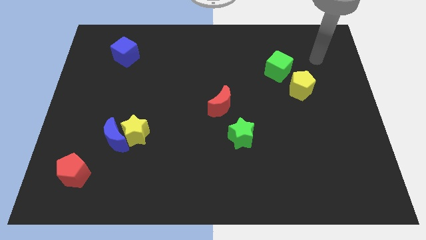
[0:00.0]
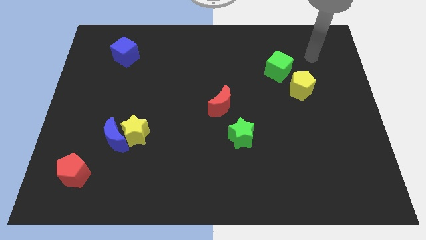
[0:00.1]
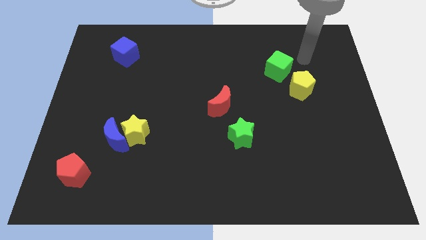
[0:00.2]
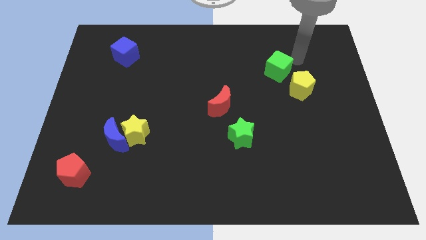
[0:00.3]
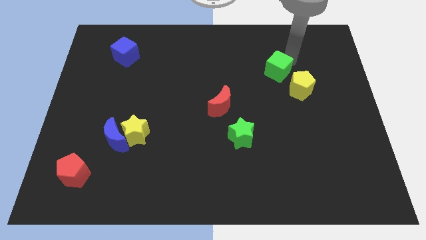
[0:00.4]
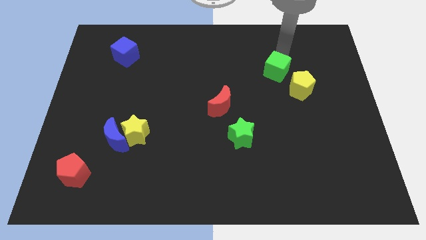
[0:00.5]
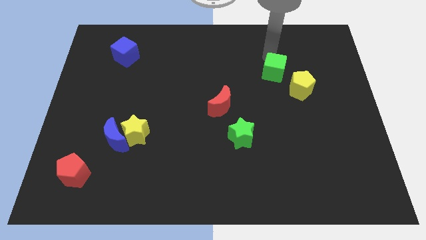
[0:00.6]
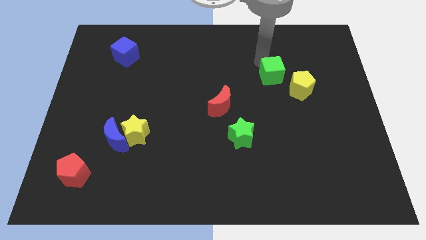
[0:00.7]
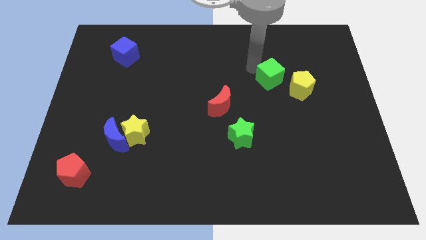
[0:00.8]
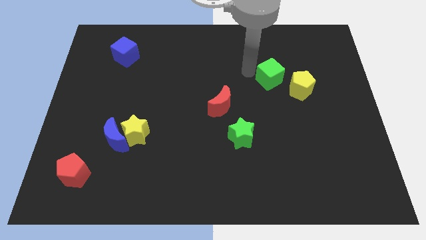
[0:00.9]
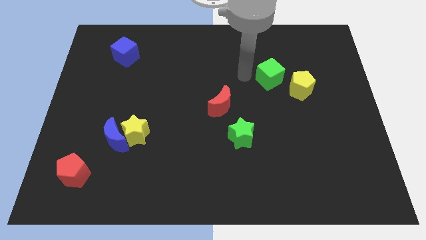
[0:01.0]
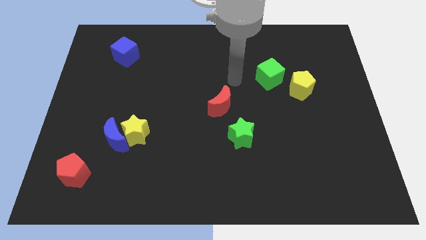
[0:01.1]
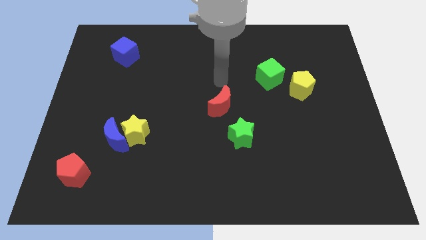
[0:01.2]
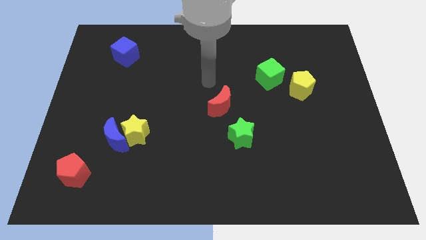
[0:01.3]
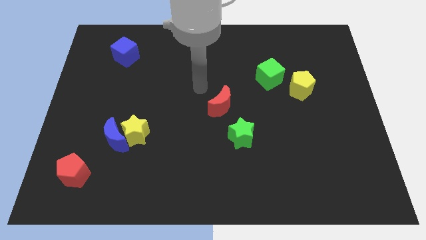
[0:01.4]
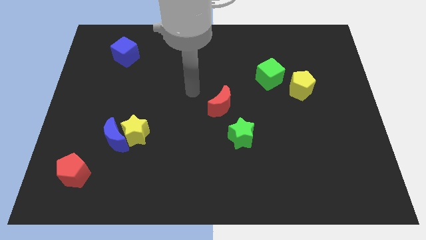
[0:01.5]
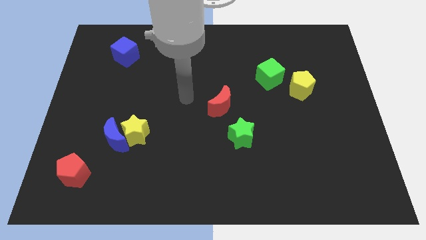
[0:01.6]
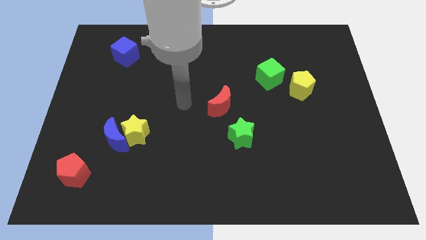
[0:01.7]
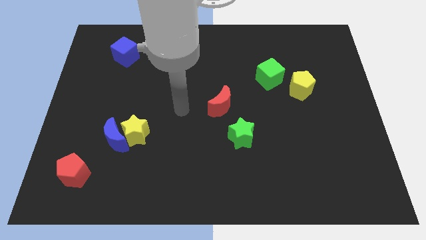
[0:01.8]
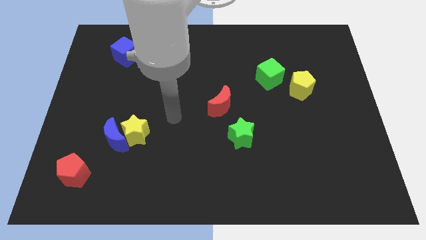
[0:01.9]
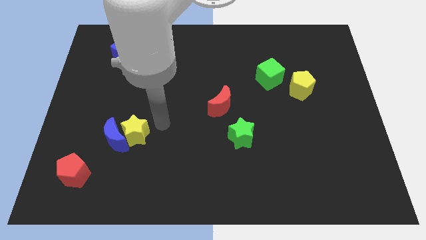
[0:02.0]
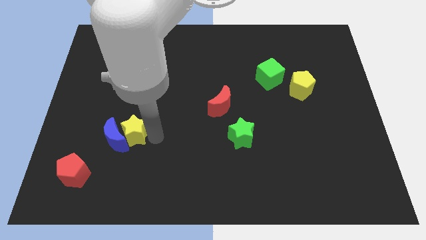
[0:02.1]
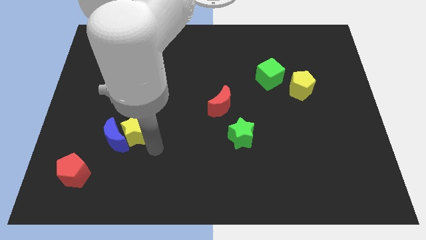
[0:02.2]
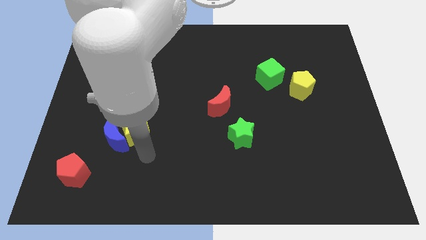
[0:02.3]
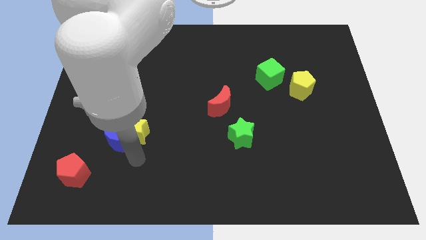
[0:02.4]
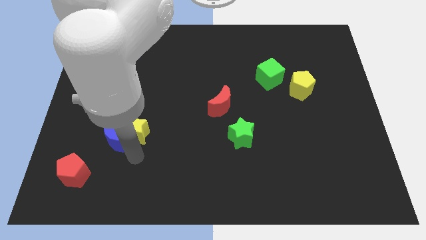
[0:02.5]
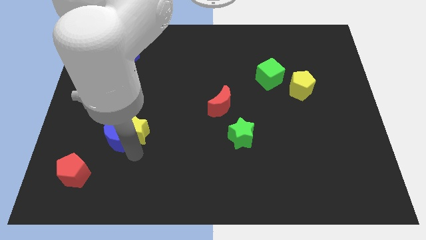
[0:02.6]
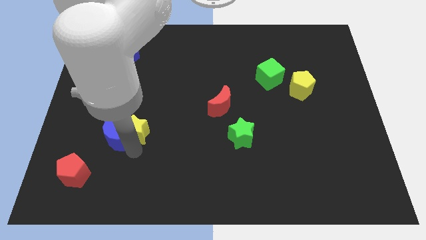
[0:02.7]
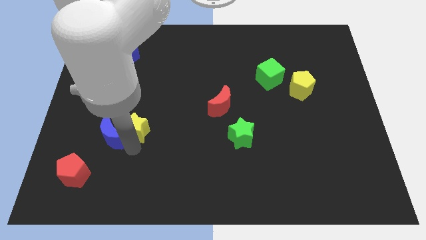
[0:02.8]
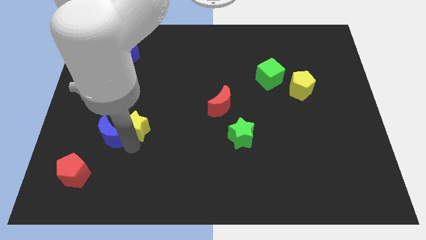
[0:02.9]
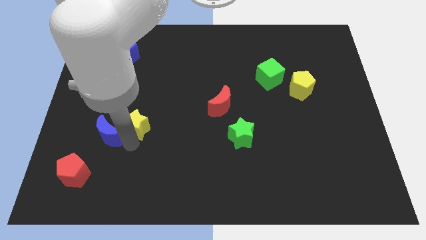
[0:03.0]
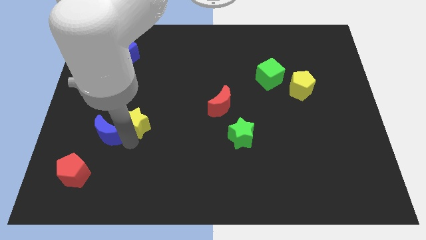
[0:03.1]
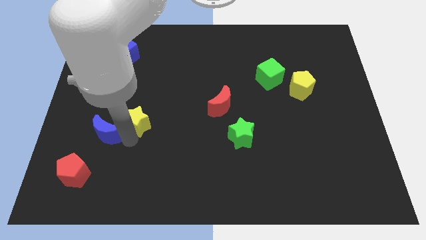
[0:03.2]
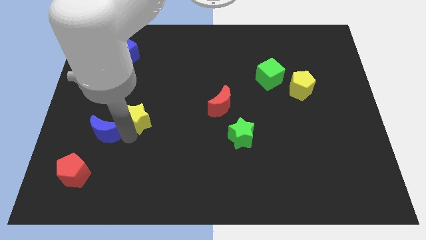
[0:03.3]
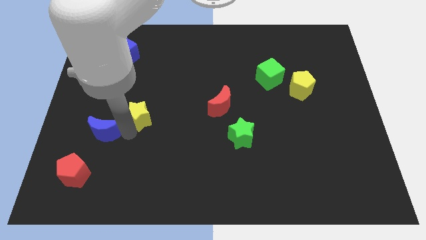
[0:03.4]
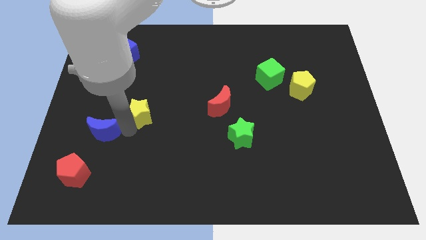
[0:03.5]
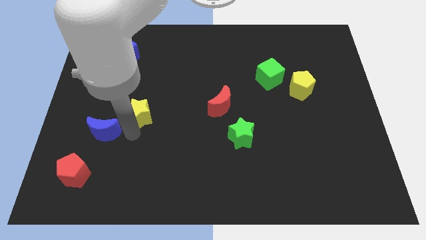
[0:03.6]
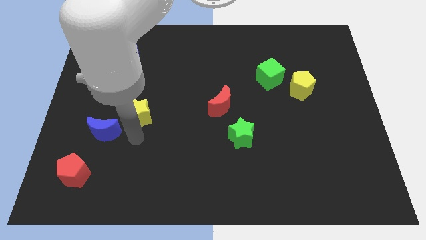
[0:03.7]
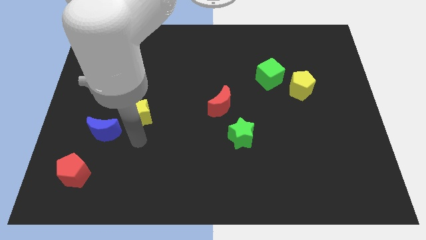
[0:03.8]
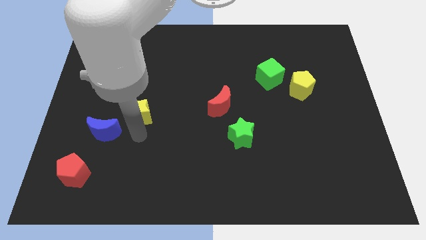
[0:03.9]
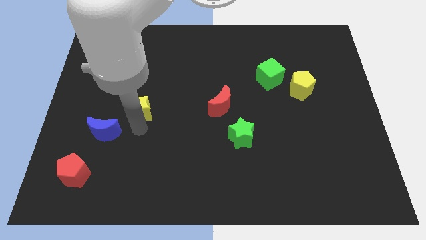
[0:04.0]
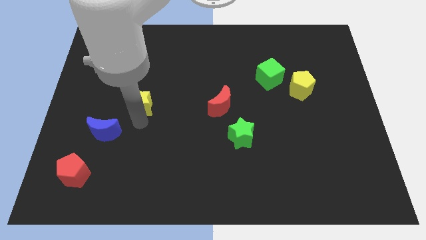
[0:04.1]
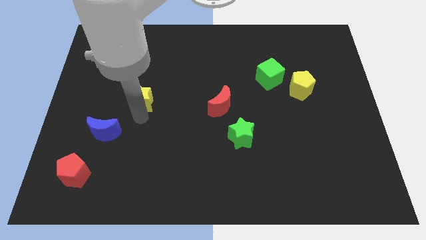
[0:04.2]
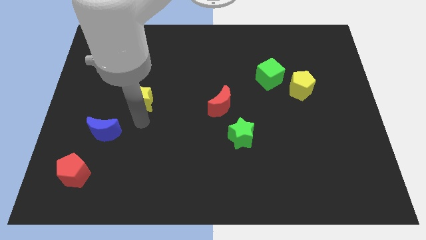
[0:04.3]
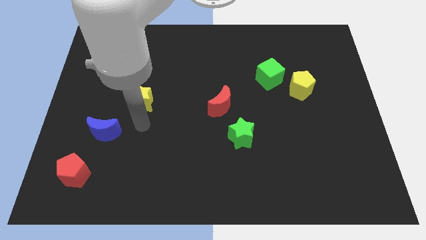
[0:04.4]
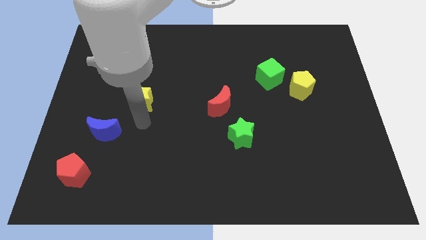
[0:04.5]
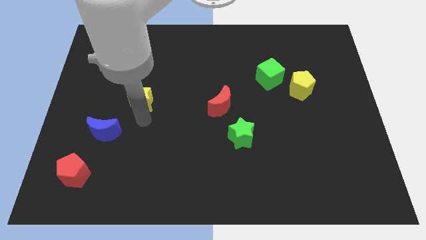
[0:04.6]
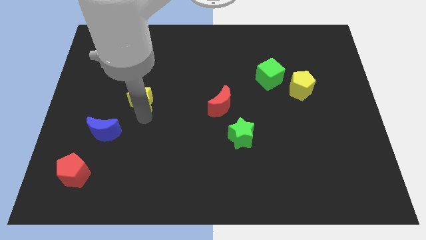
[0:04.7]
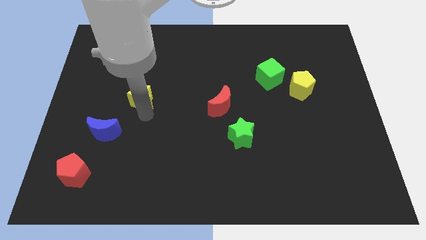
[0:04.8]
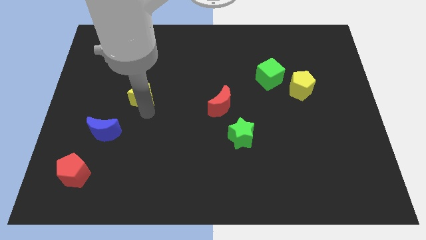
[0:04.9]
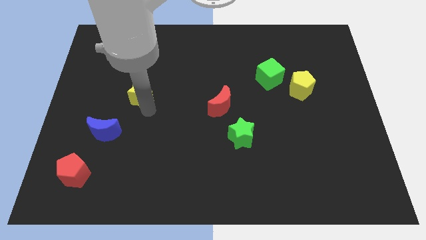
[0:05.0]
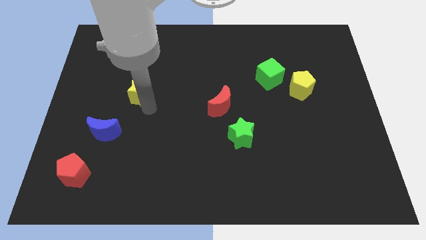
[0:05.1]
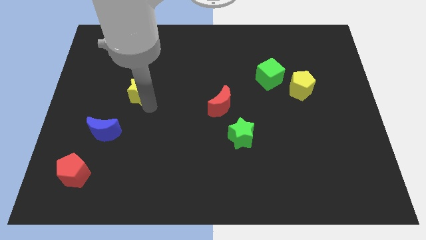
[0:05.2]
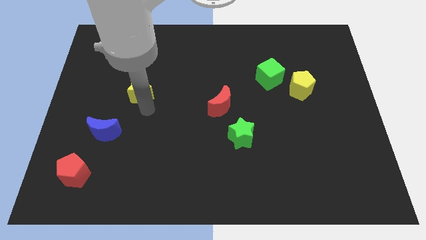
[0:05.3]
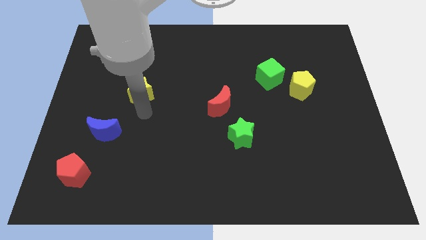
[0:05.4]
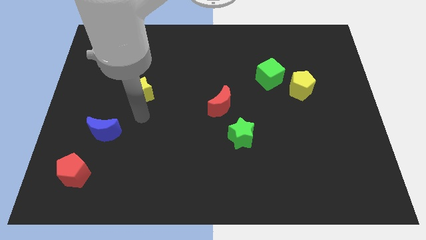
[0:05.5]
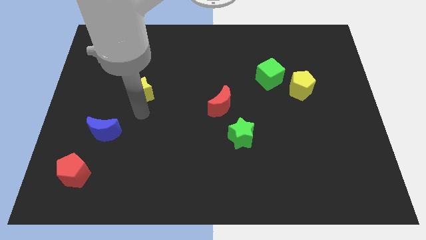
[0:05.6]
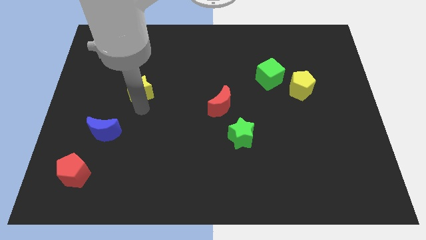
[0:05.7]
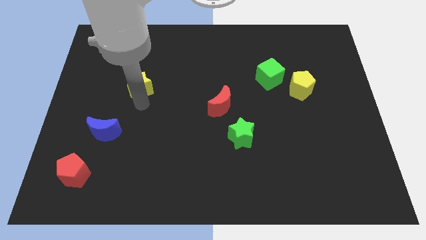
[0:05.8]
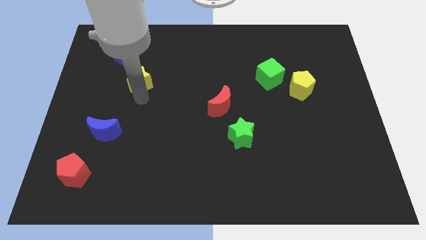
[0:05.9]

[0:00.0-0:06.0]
move the yellow star to the bottom right side of the blue cube

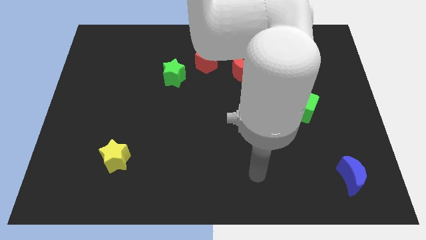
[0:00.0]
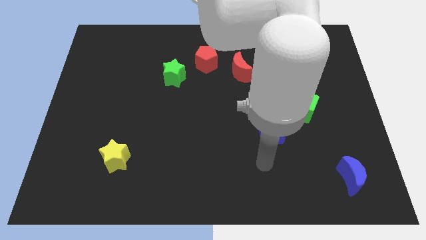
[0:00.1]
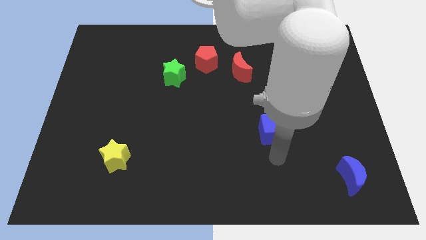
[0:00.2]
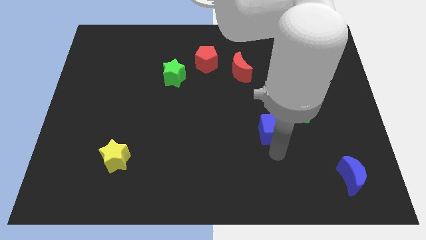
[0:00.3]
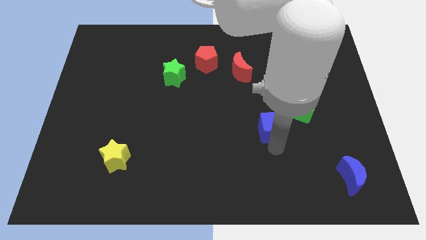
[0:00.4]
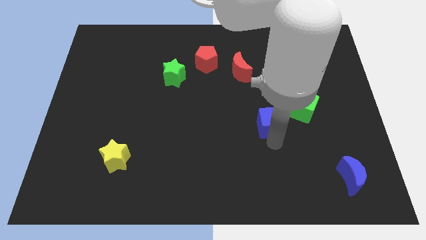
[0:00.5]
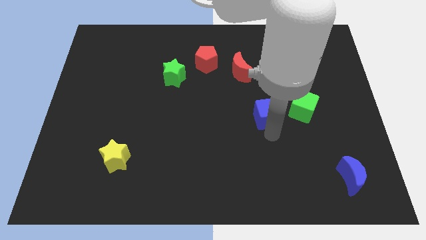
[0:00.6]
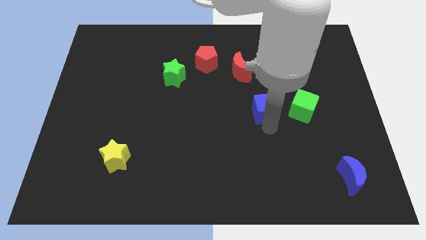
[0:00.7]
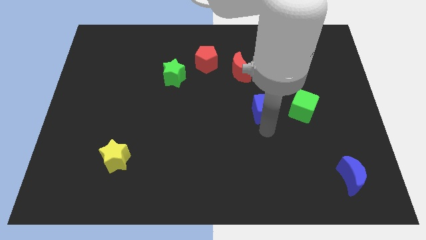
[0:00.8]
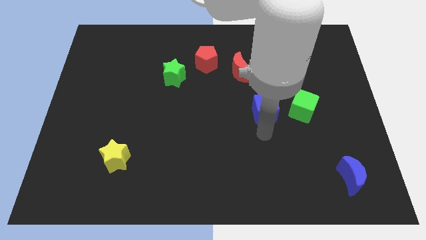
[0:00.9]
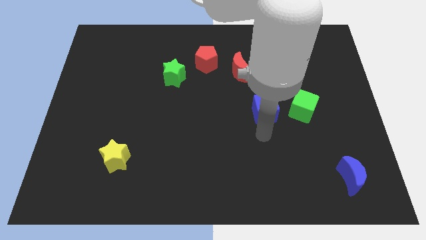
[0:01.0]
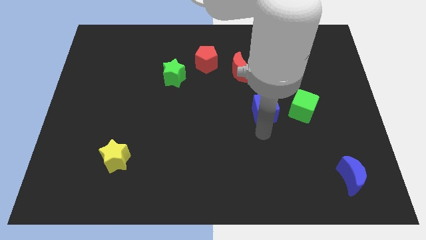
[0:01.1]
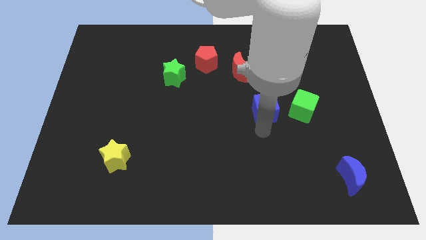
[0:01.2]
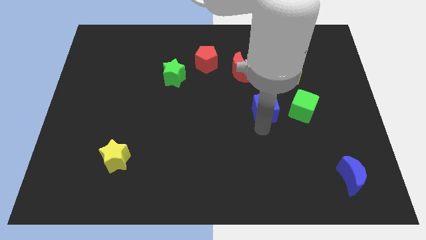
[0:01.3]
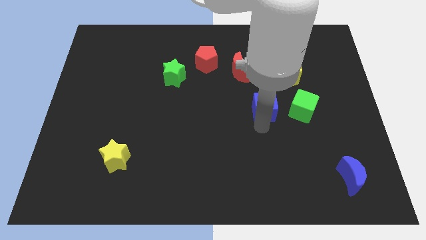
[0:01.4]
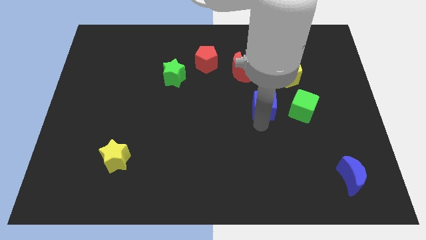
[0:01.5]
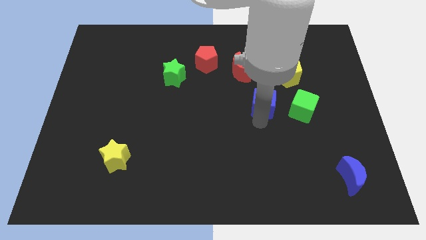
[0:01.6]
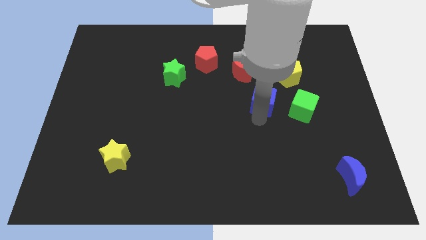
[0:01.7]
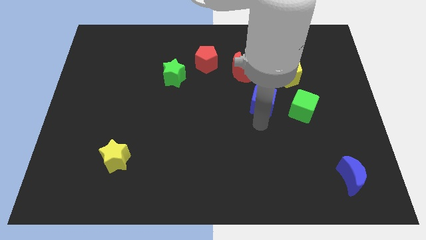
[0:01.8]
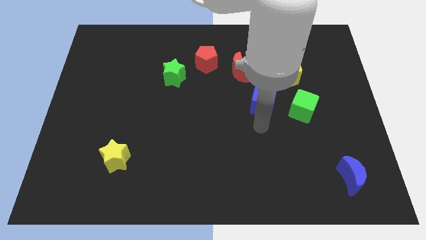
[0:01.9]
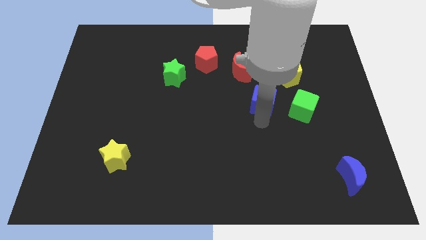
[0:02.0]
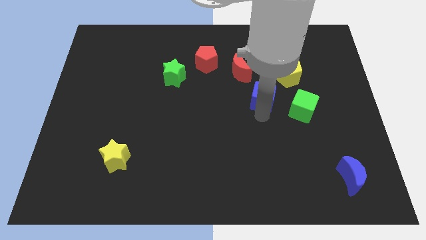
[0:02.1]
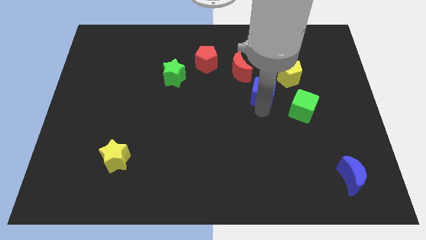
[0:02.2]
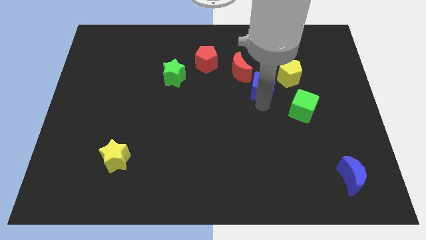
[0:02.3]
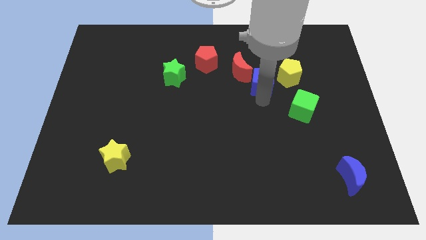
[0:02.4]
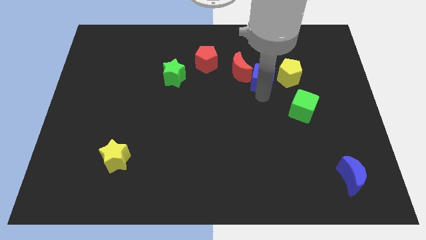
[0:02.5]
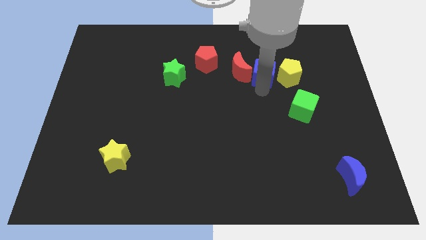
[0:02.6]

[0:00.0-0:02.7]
put the blue cube to the top left of the yellow pentagon
